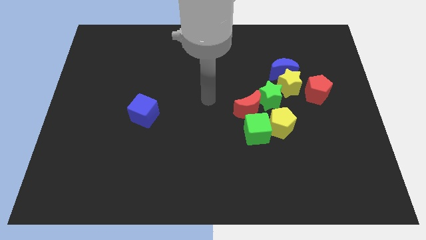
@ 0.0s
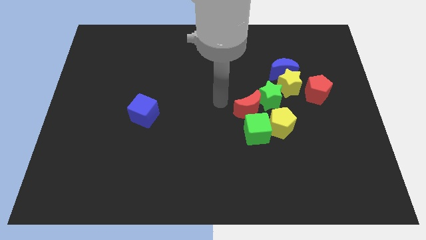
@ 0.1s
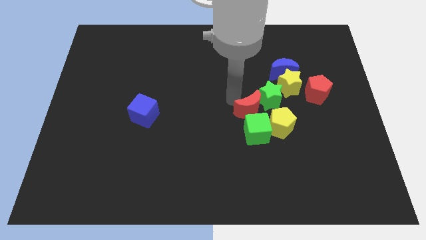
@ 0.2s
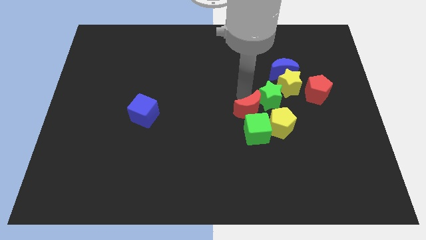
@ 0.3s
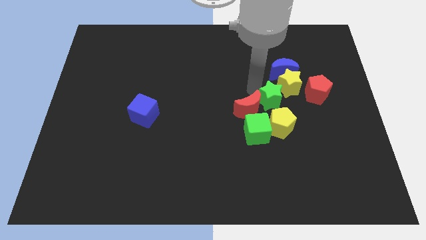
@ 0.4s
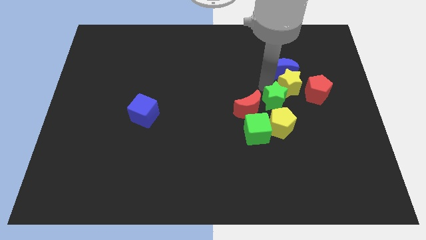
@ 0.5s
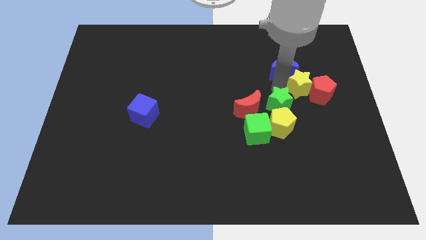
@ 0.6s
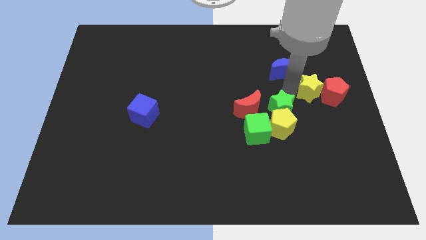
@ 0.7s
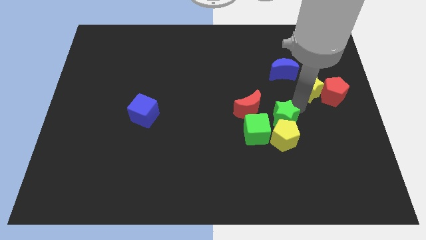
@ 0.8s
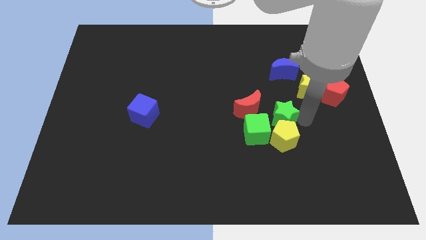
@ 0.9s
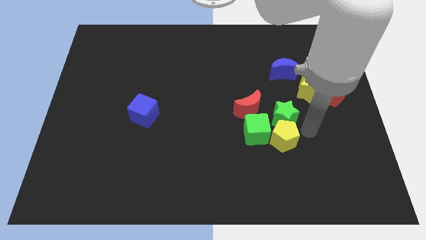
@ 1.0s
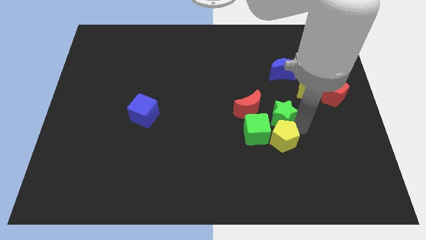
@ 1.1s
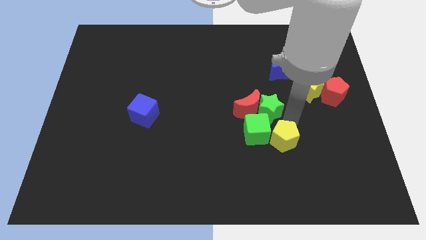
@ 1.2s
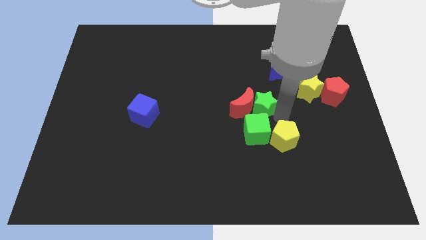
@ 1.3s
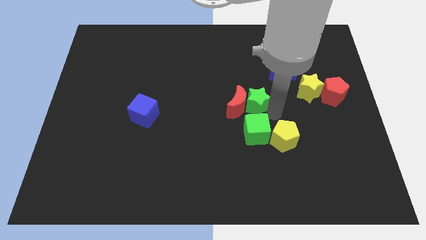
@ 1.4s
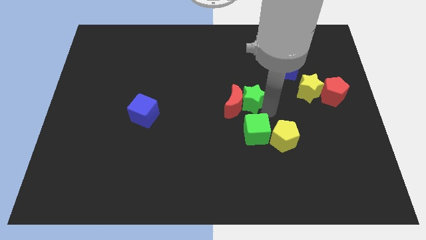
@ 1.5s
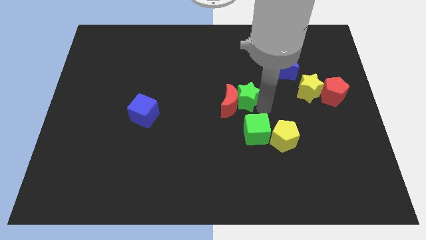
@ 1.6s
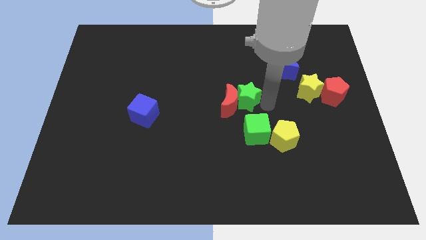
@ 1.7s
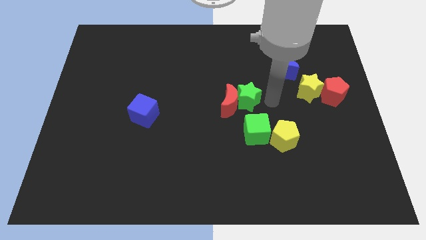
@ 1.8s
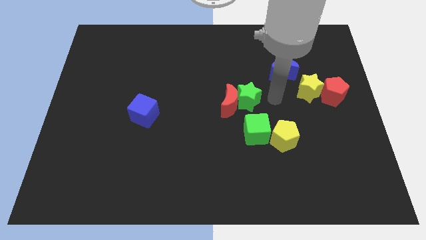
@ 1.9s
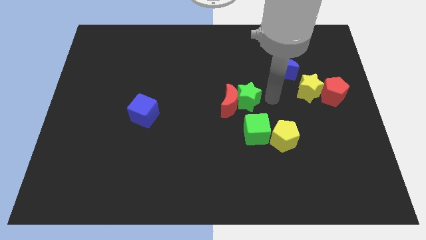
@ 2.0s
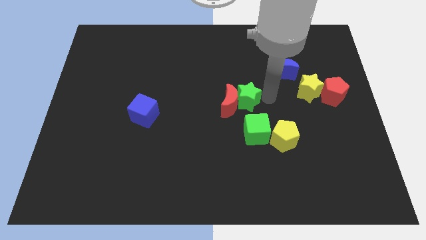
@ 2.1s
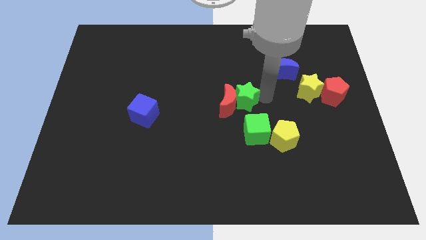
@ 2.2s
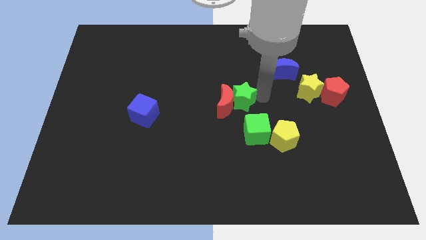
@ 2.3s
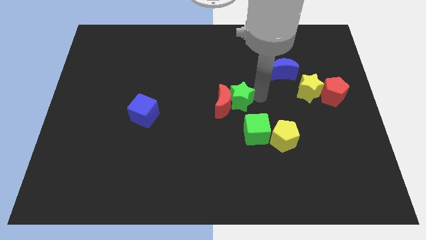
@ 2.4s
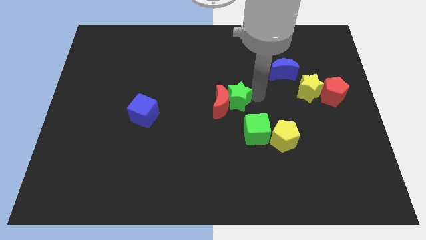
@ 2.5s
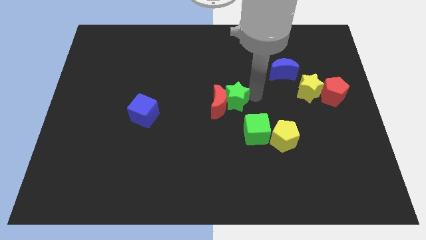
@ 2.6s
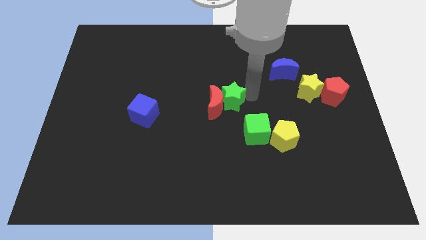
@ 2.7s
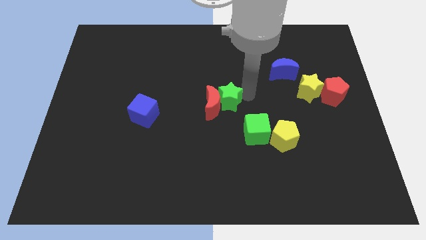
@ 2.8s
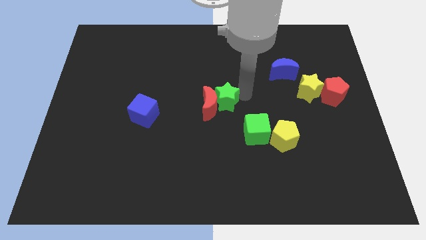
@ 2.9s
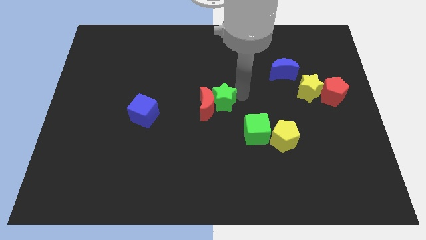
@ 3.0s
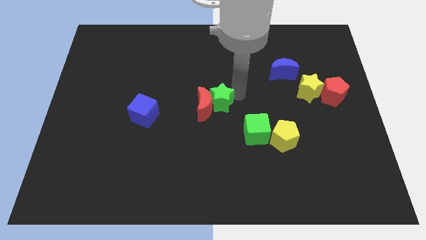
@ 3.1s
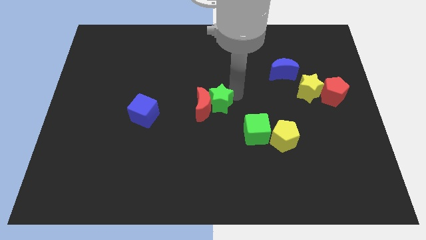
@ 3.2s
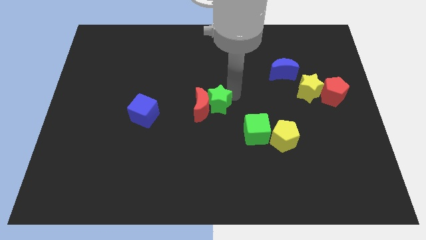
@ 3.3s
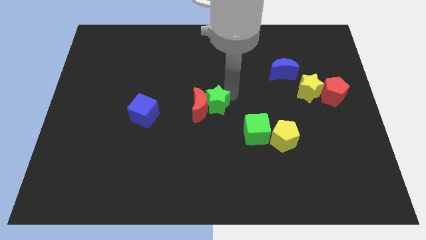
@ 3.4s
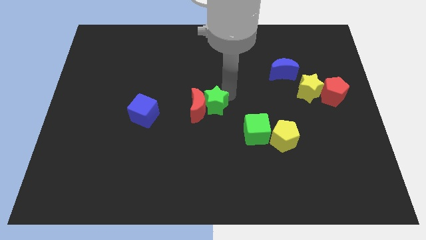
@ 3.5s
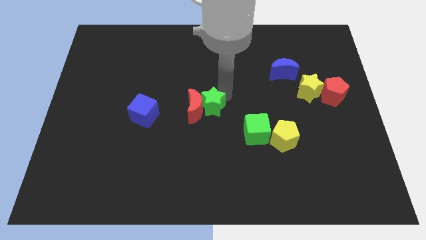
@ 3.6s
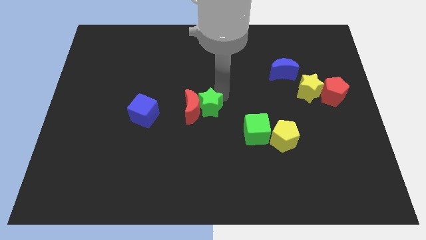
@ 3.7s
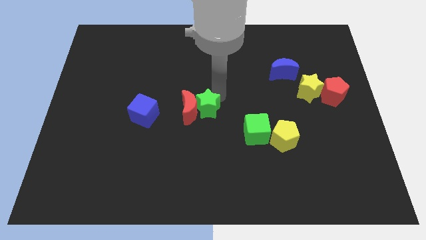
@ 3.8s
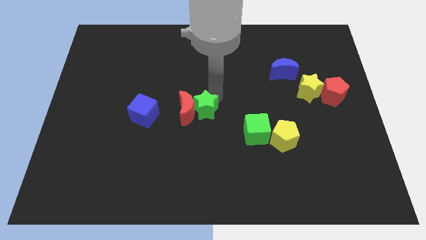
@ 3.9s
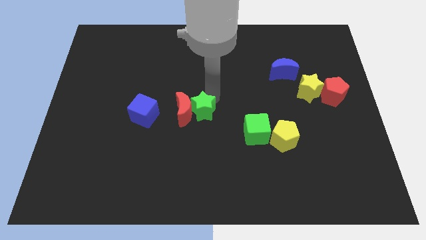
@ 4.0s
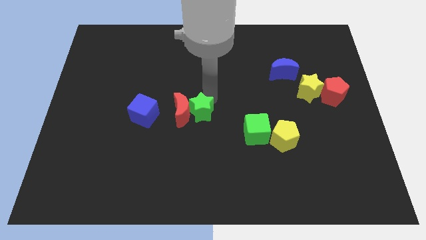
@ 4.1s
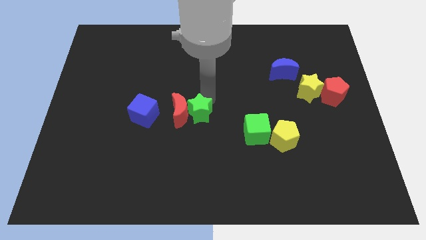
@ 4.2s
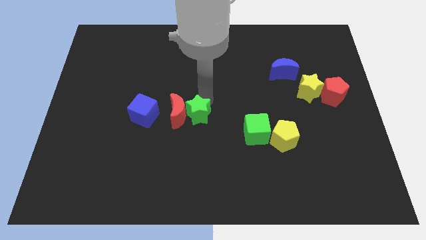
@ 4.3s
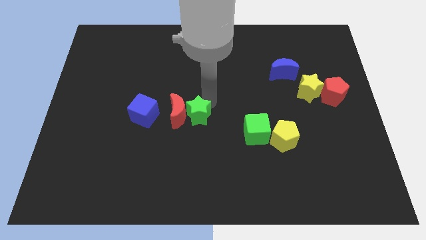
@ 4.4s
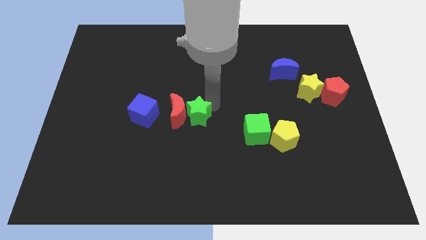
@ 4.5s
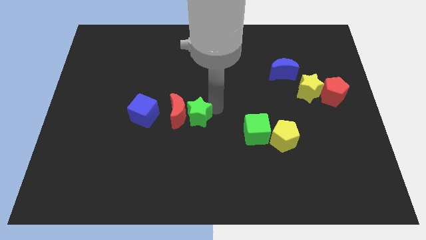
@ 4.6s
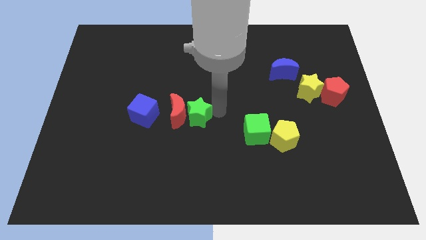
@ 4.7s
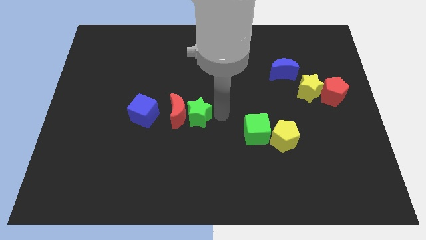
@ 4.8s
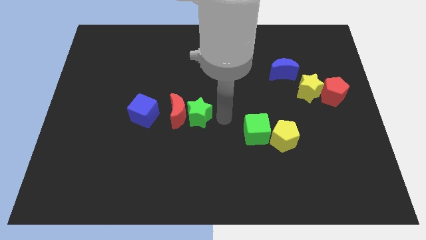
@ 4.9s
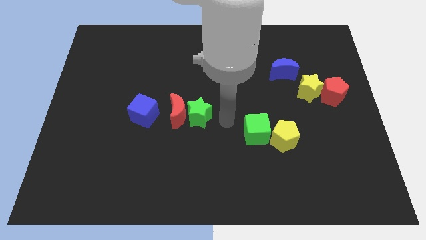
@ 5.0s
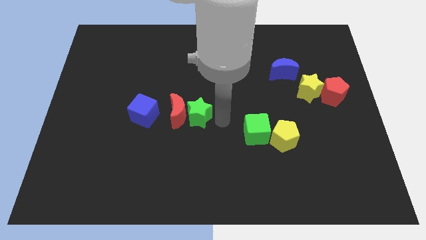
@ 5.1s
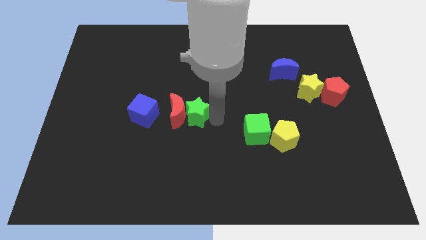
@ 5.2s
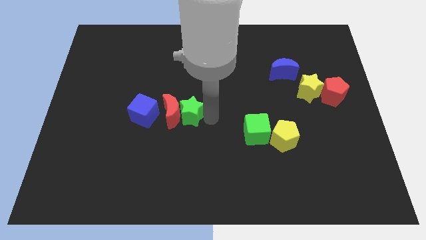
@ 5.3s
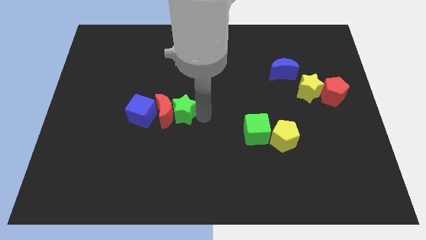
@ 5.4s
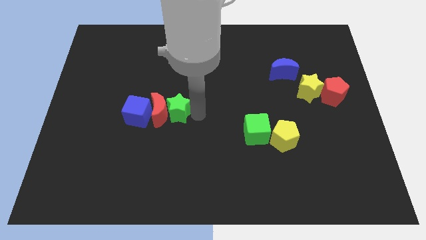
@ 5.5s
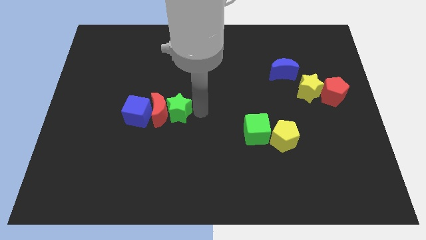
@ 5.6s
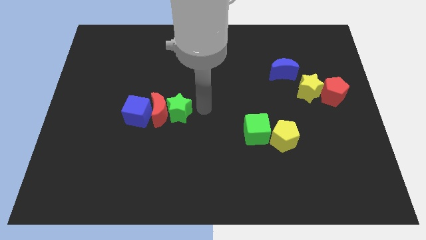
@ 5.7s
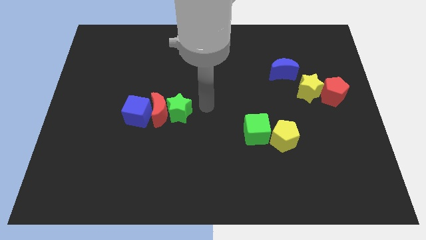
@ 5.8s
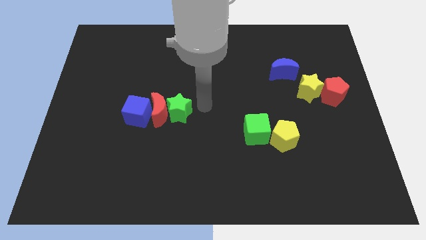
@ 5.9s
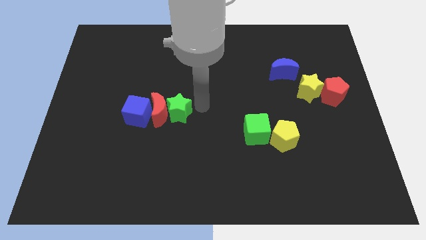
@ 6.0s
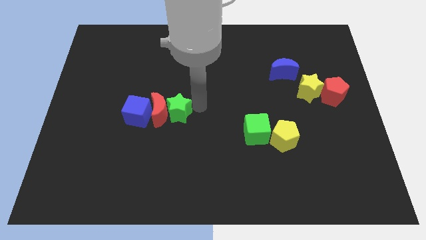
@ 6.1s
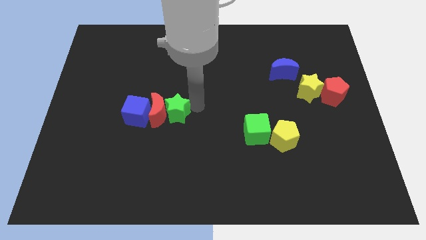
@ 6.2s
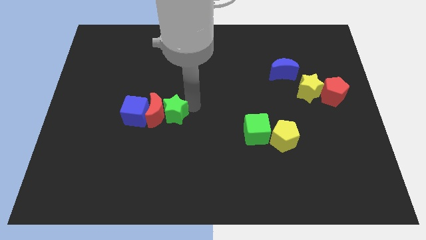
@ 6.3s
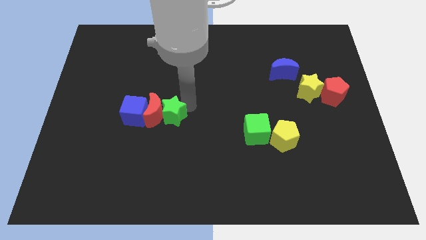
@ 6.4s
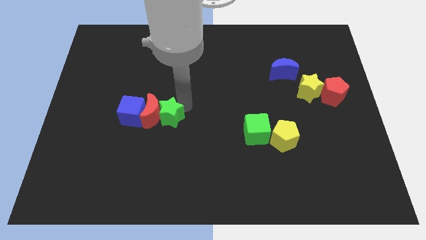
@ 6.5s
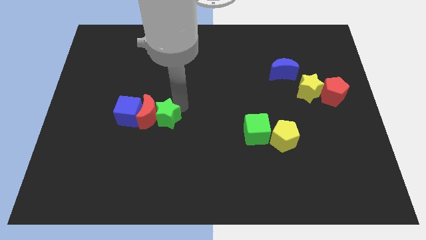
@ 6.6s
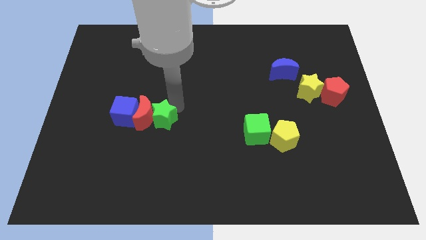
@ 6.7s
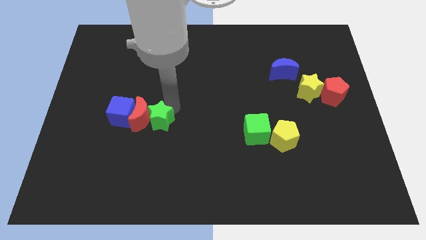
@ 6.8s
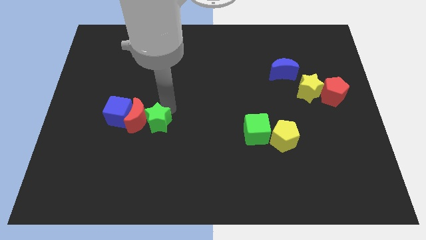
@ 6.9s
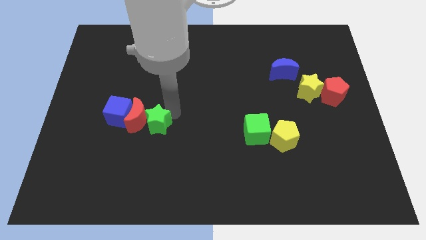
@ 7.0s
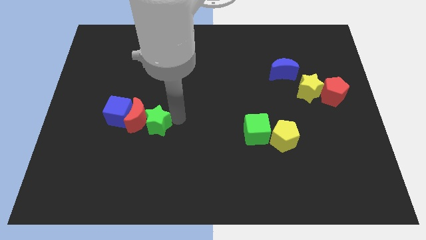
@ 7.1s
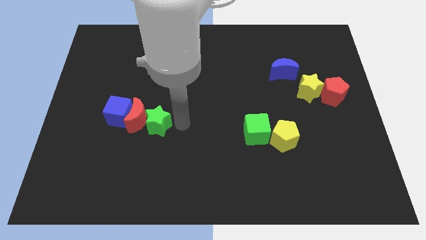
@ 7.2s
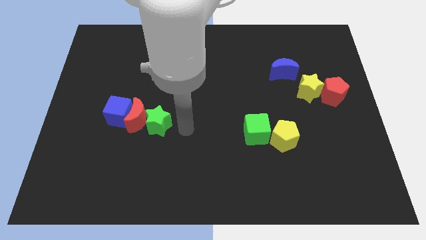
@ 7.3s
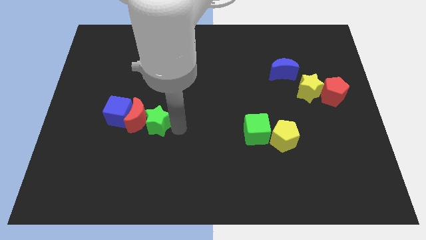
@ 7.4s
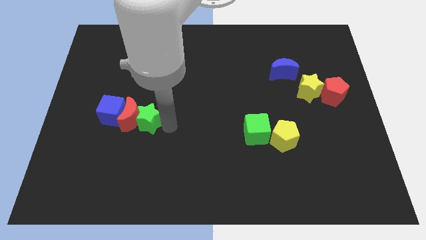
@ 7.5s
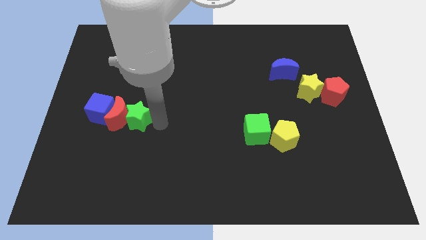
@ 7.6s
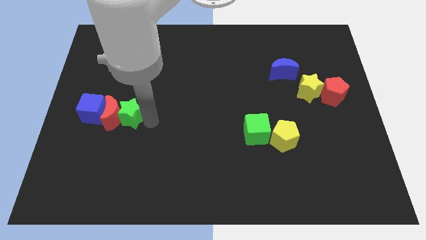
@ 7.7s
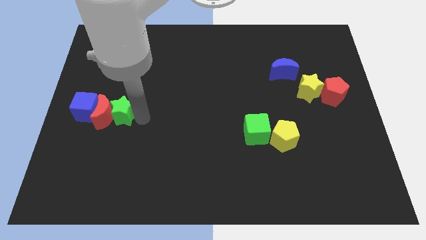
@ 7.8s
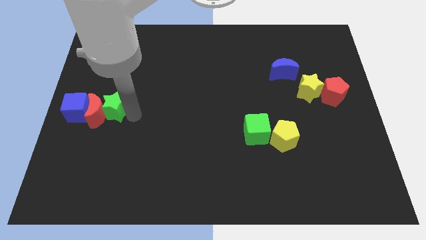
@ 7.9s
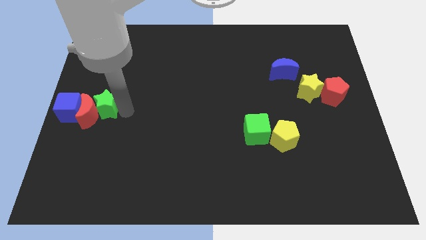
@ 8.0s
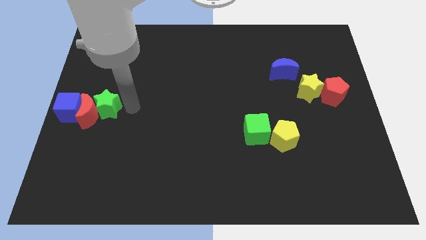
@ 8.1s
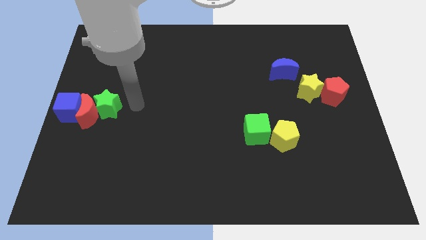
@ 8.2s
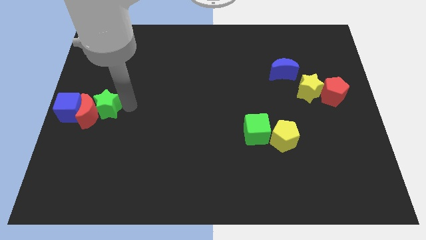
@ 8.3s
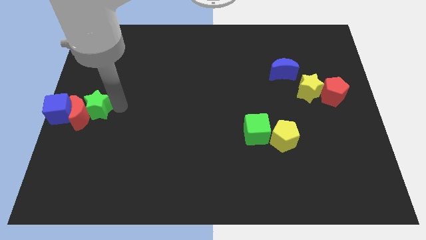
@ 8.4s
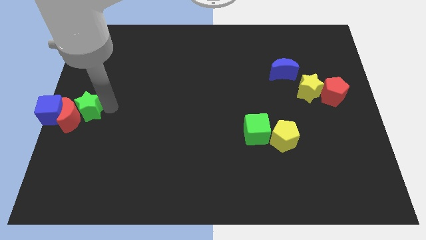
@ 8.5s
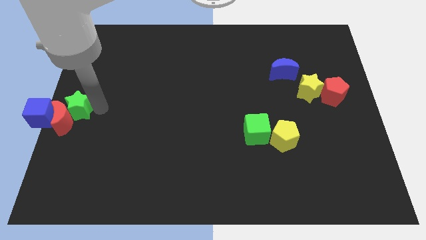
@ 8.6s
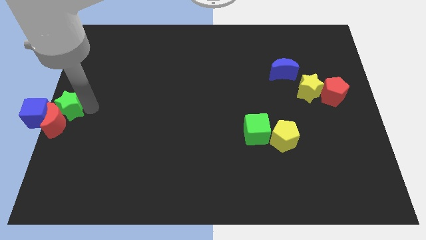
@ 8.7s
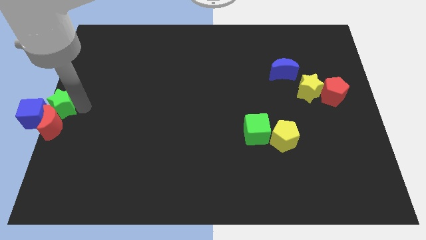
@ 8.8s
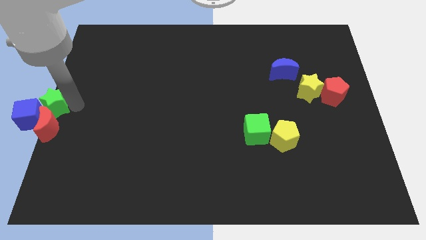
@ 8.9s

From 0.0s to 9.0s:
move the green star next to the blue cube
